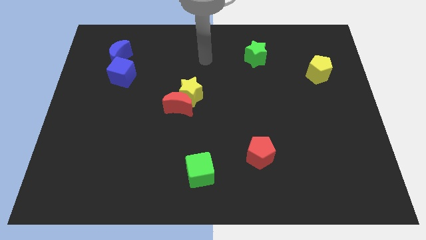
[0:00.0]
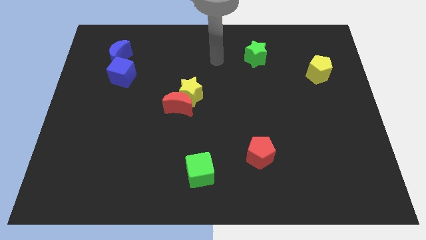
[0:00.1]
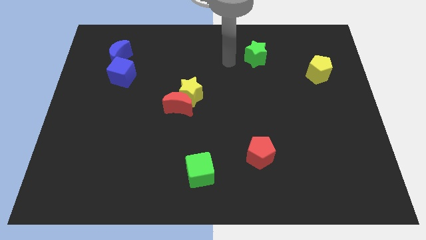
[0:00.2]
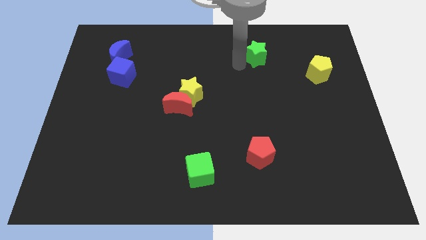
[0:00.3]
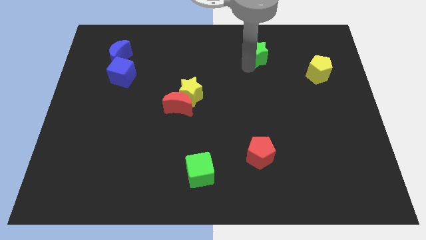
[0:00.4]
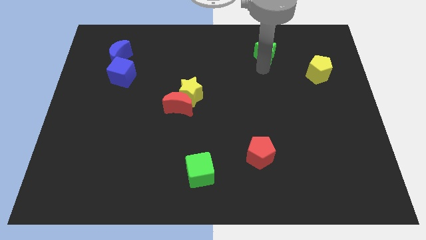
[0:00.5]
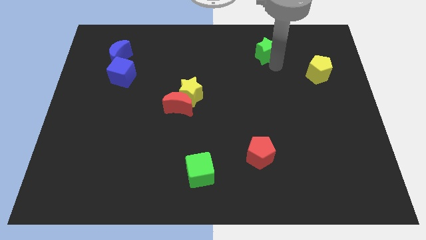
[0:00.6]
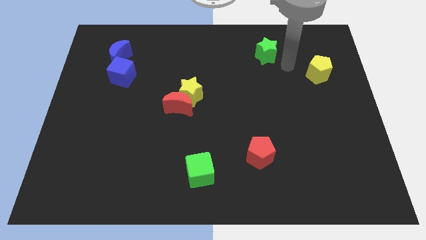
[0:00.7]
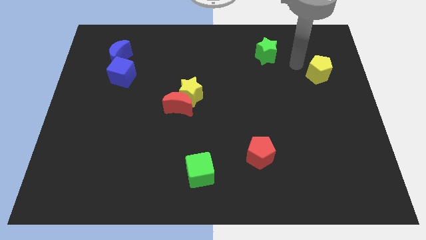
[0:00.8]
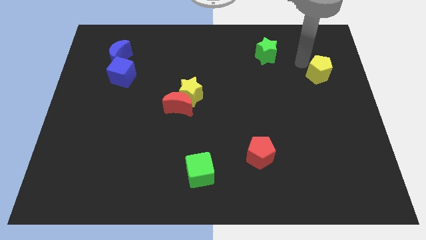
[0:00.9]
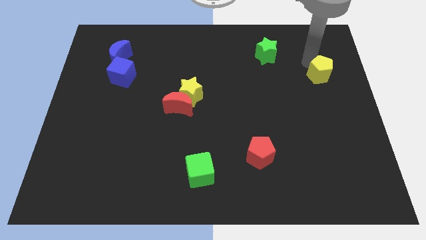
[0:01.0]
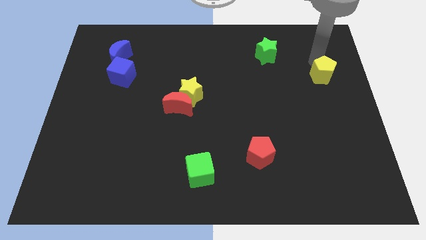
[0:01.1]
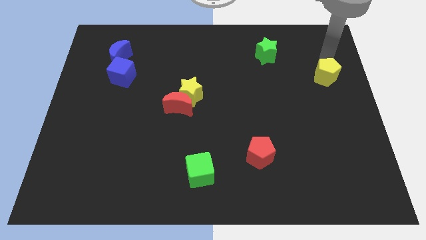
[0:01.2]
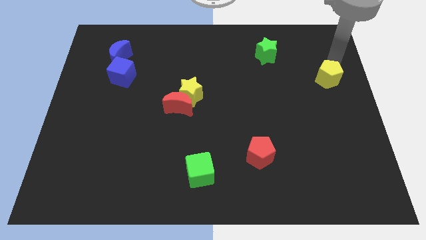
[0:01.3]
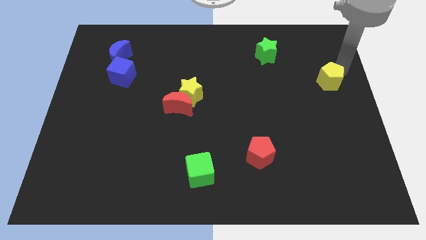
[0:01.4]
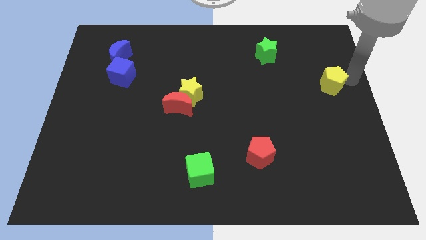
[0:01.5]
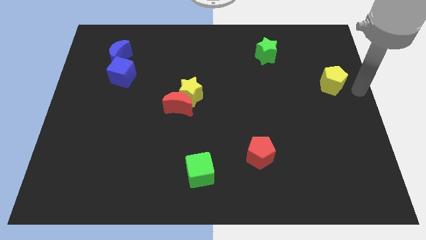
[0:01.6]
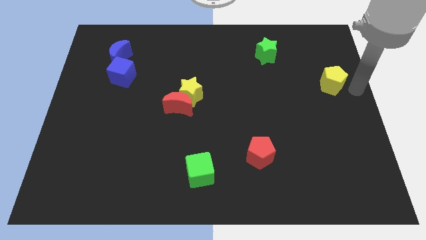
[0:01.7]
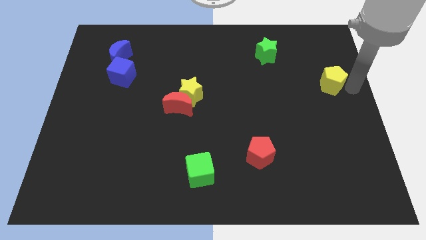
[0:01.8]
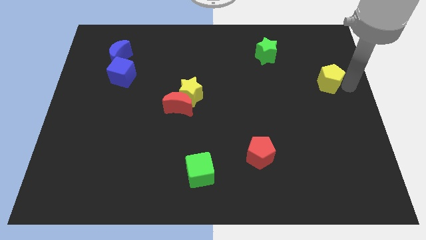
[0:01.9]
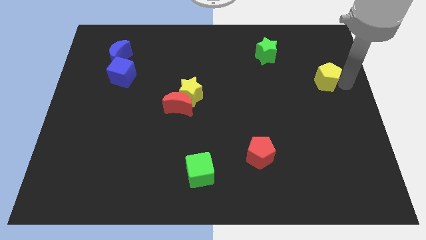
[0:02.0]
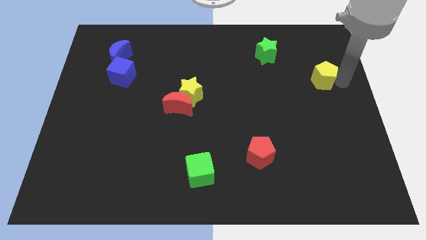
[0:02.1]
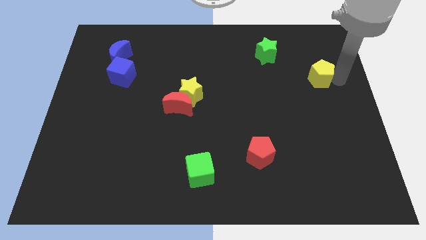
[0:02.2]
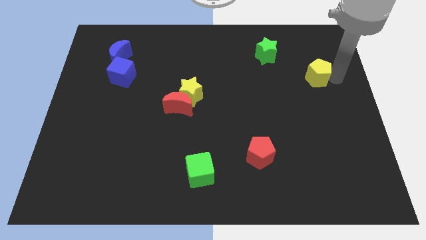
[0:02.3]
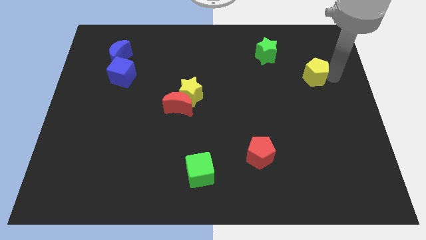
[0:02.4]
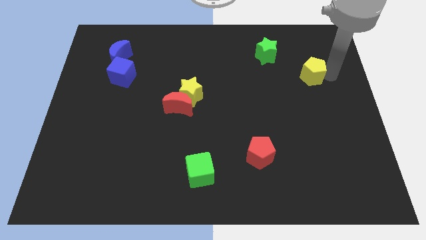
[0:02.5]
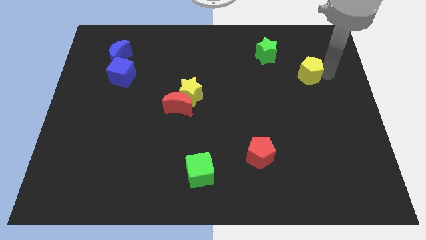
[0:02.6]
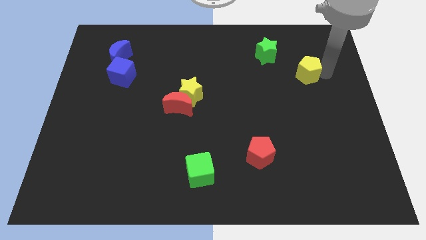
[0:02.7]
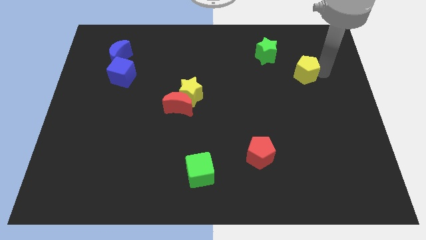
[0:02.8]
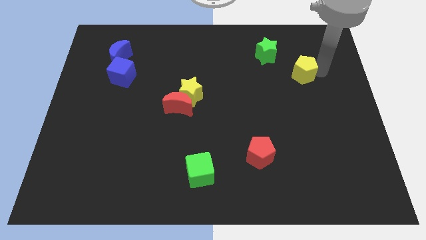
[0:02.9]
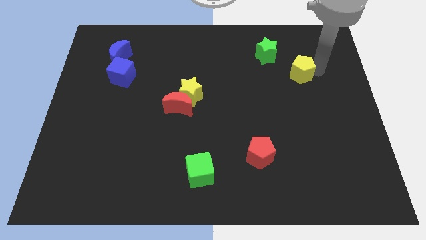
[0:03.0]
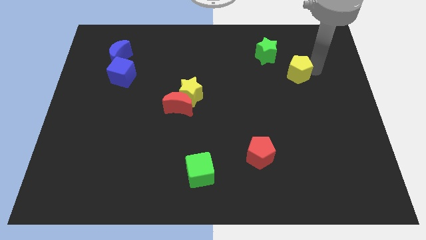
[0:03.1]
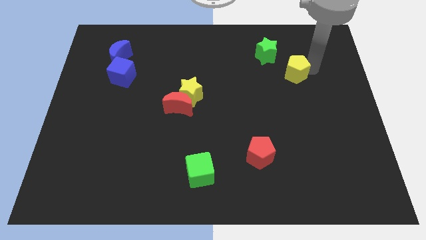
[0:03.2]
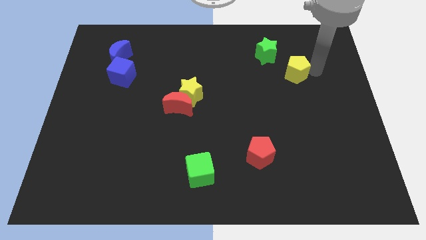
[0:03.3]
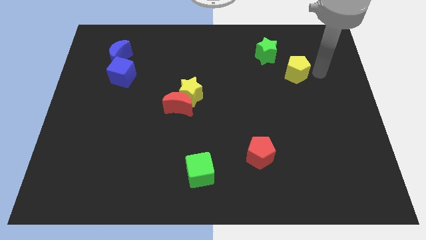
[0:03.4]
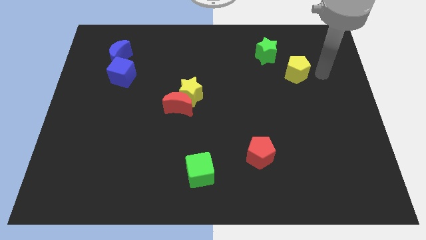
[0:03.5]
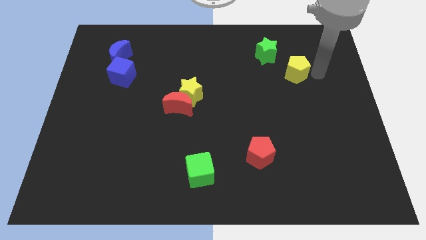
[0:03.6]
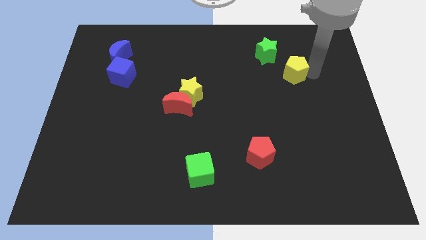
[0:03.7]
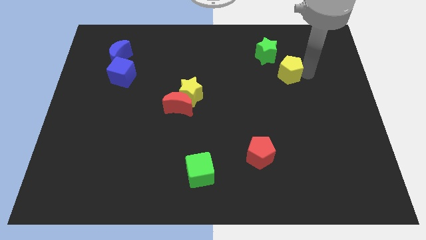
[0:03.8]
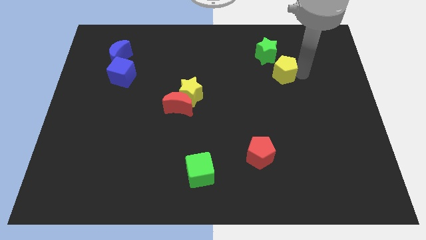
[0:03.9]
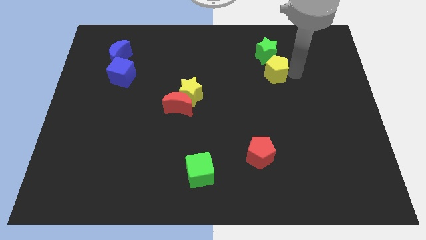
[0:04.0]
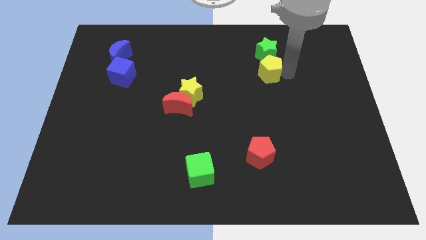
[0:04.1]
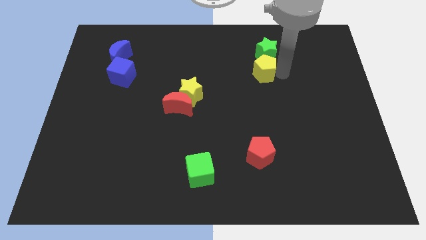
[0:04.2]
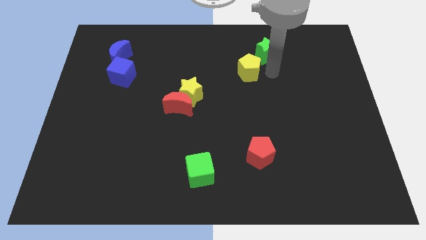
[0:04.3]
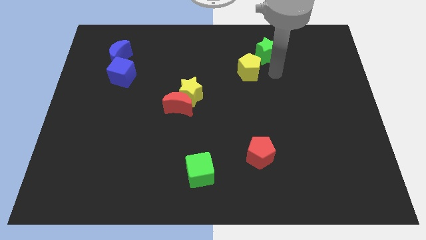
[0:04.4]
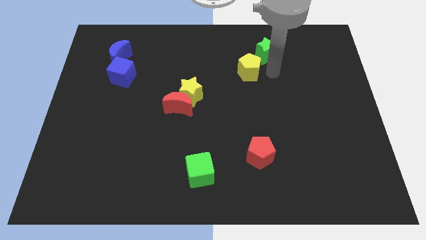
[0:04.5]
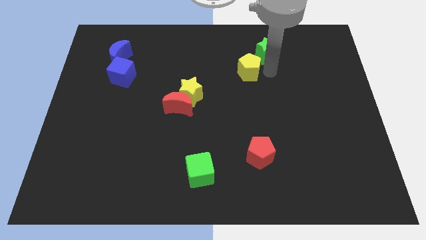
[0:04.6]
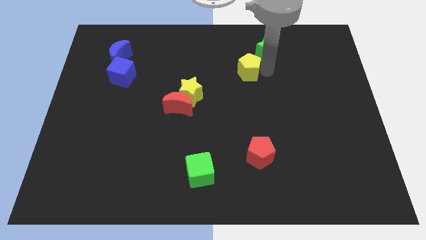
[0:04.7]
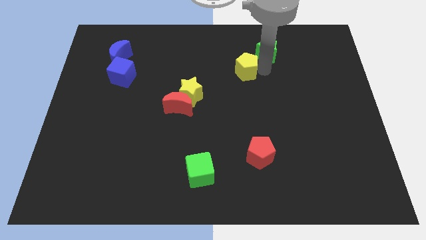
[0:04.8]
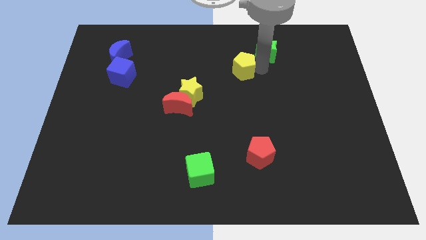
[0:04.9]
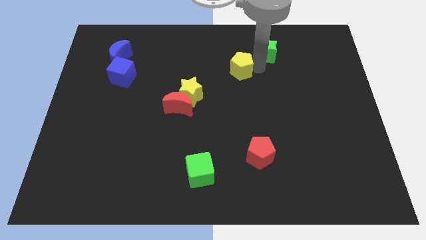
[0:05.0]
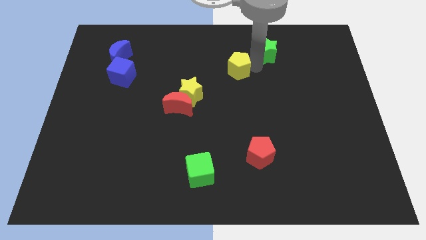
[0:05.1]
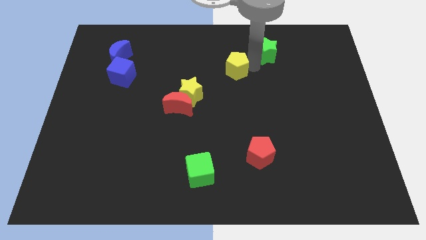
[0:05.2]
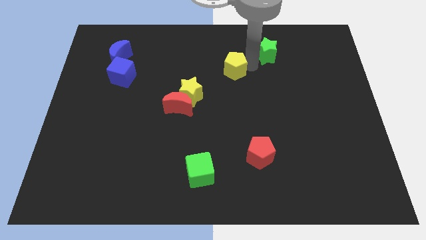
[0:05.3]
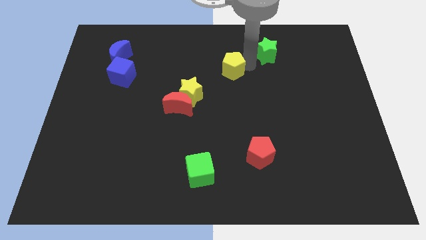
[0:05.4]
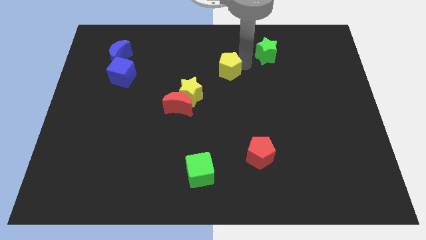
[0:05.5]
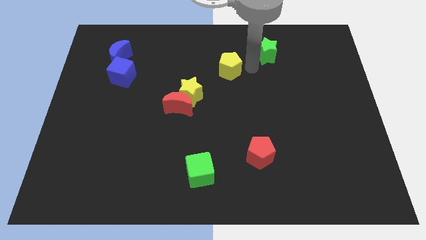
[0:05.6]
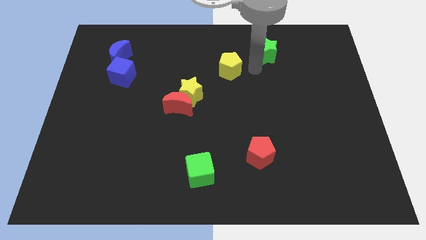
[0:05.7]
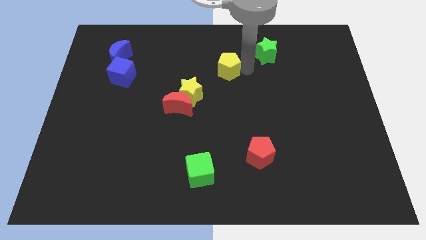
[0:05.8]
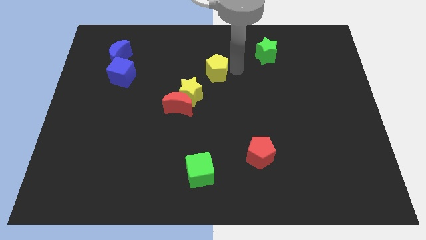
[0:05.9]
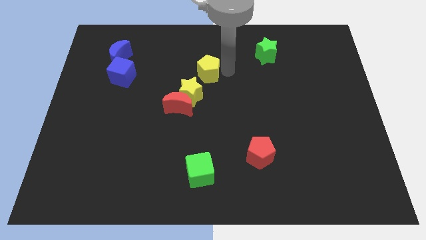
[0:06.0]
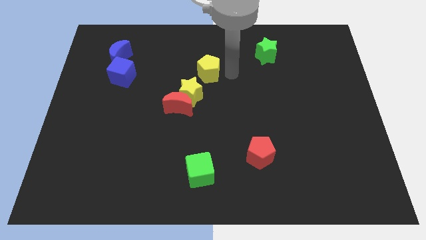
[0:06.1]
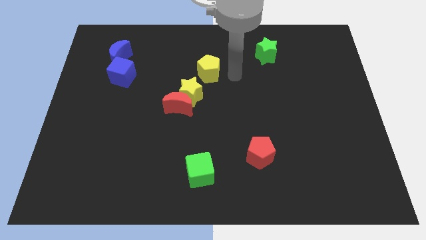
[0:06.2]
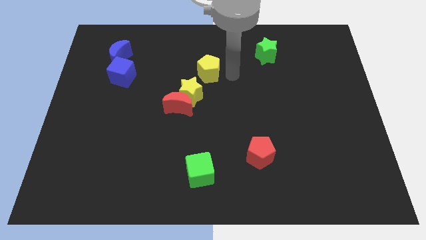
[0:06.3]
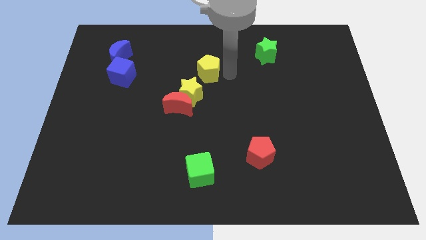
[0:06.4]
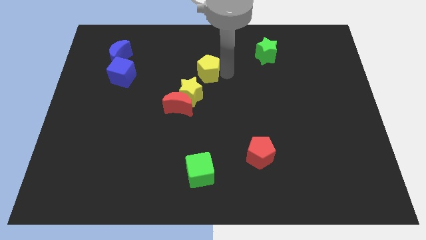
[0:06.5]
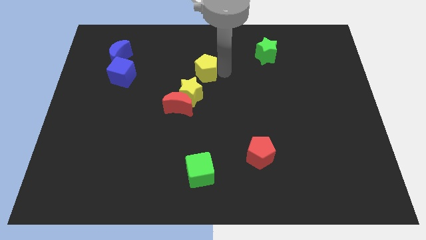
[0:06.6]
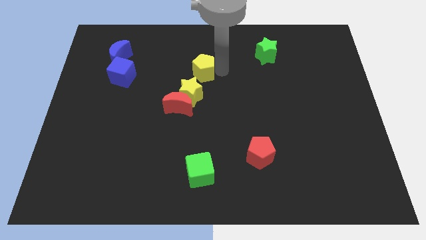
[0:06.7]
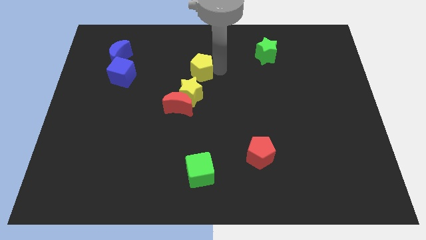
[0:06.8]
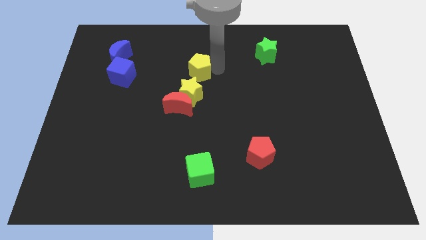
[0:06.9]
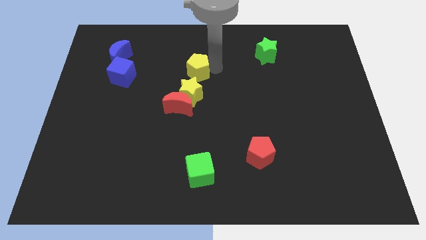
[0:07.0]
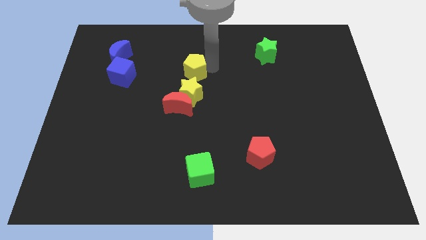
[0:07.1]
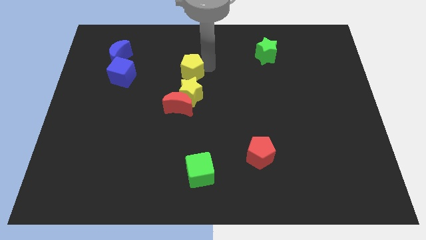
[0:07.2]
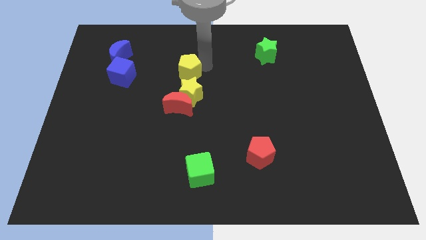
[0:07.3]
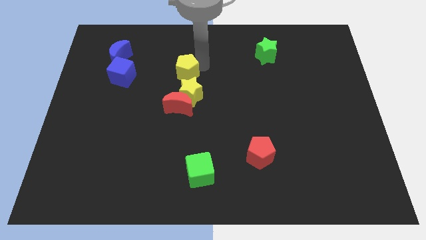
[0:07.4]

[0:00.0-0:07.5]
put the yellow pentagon to the right of the blue cube
